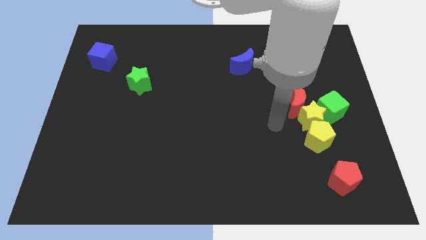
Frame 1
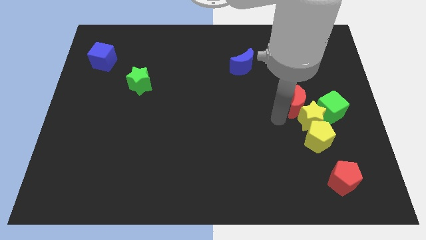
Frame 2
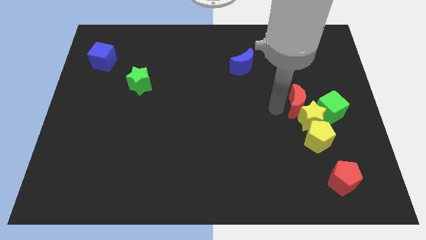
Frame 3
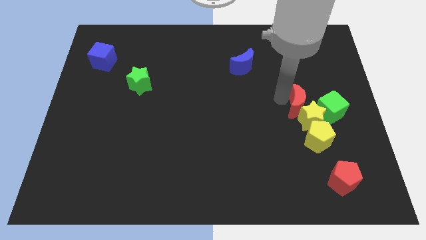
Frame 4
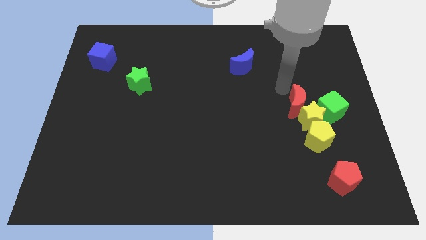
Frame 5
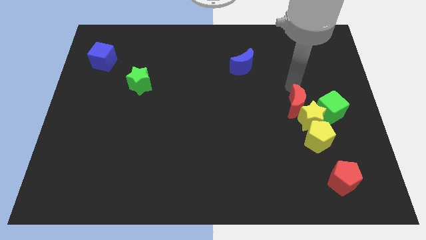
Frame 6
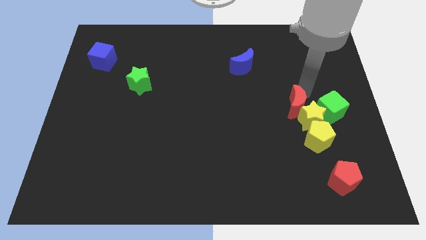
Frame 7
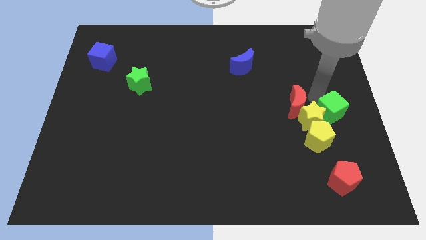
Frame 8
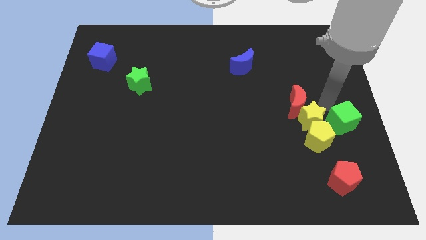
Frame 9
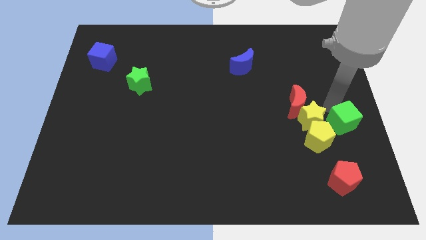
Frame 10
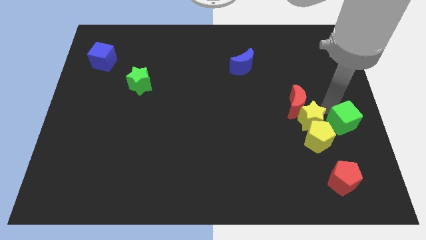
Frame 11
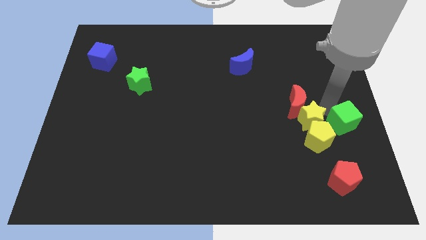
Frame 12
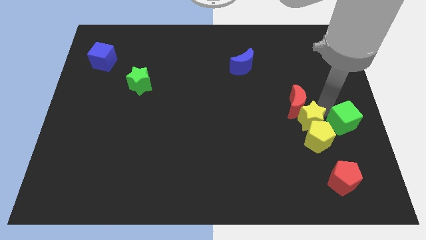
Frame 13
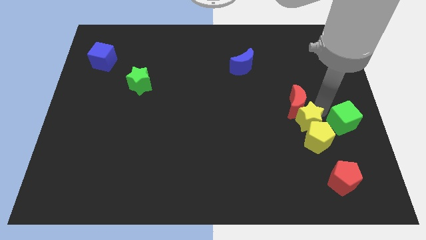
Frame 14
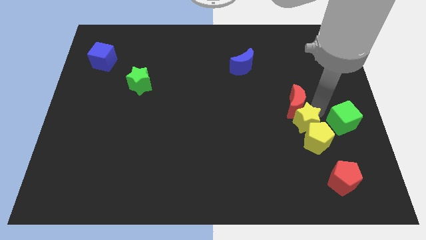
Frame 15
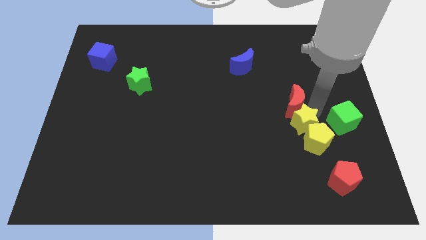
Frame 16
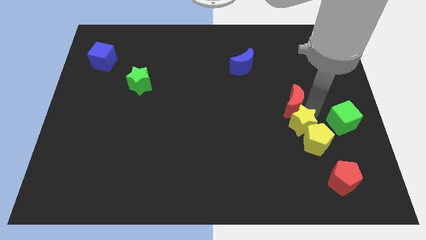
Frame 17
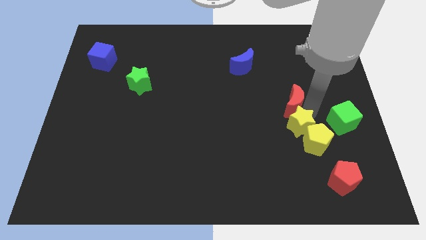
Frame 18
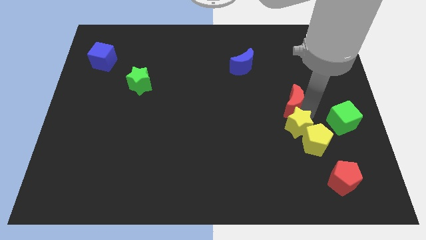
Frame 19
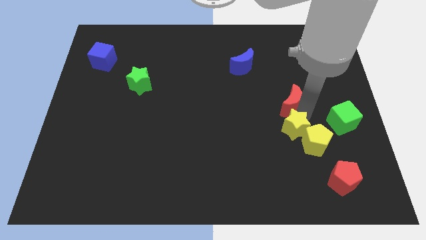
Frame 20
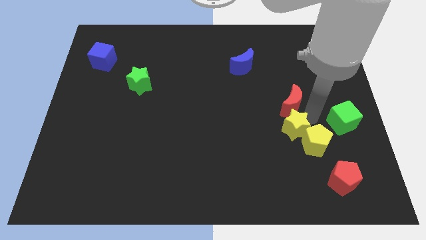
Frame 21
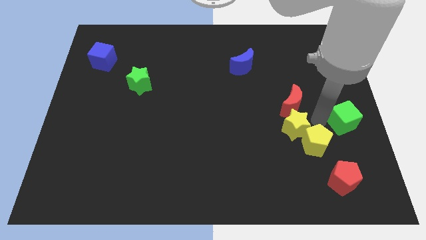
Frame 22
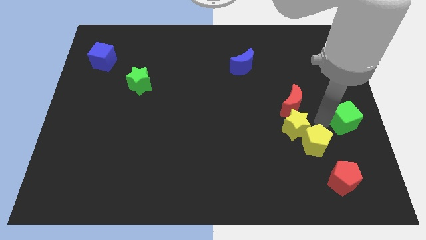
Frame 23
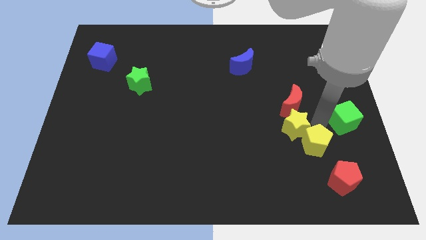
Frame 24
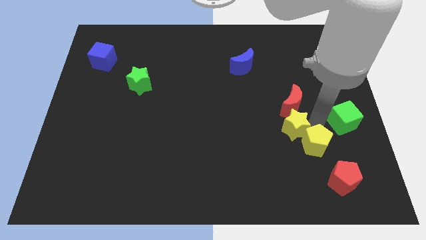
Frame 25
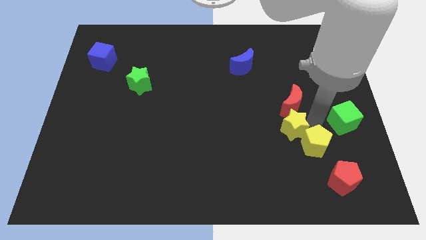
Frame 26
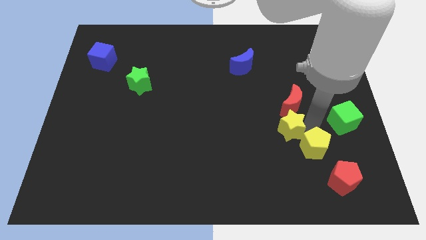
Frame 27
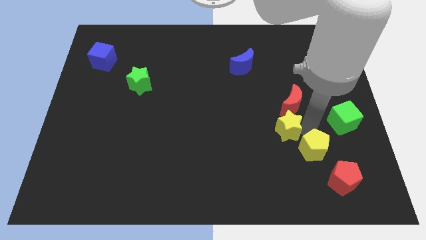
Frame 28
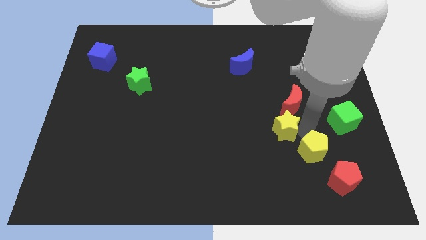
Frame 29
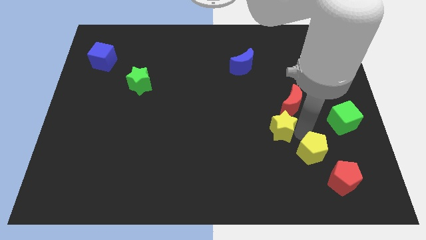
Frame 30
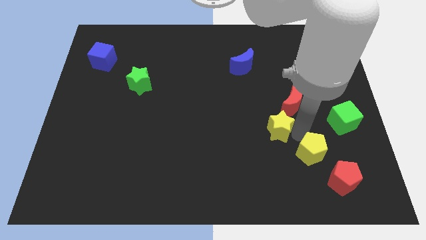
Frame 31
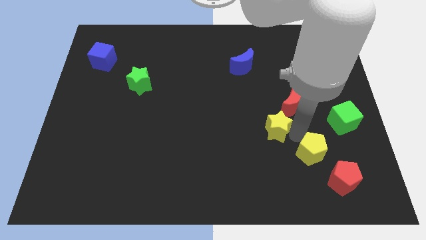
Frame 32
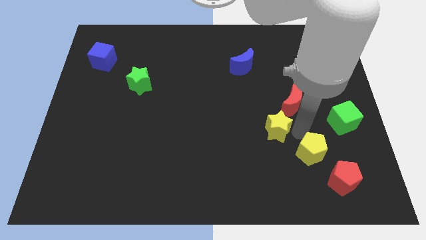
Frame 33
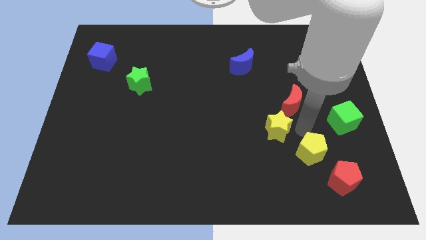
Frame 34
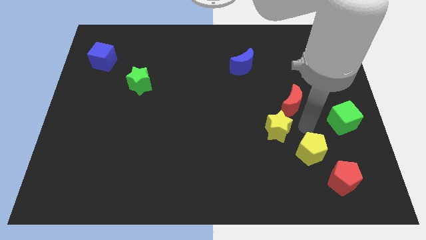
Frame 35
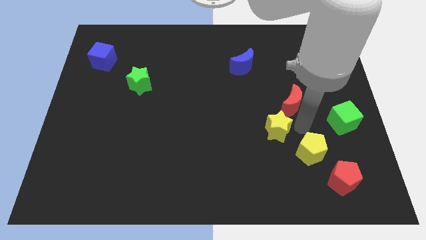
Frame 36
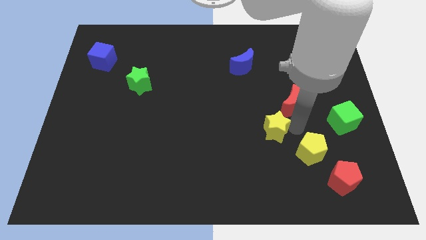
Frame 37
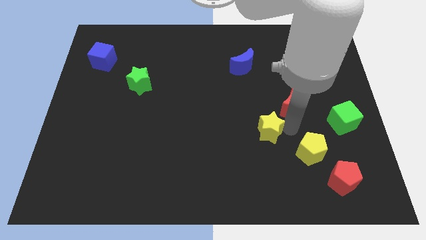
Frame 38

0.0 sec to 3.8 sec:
pull the yellow star apart from the group of blocks

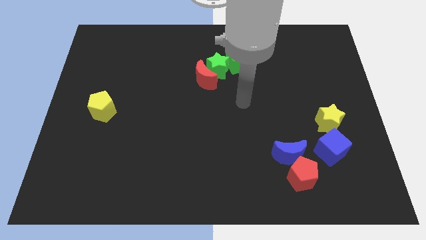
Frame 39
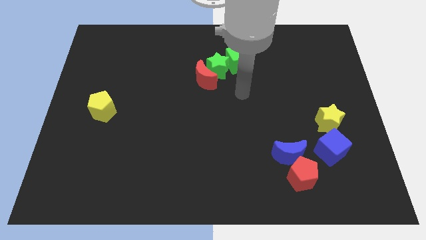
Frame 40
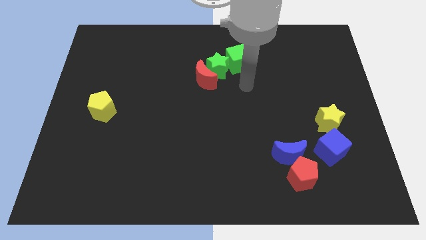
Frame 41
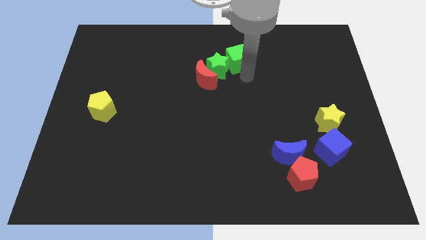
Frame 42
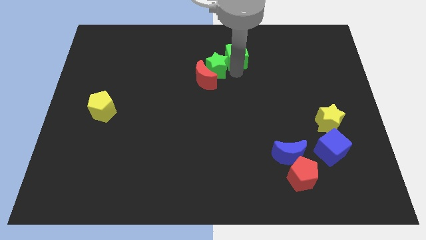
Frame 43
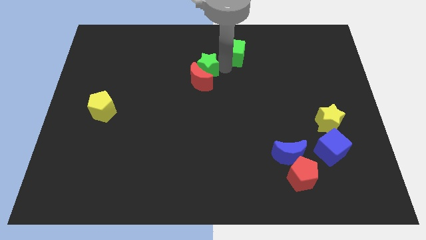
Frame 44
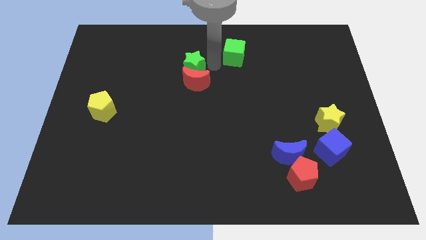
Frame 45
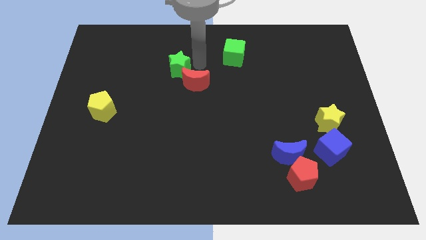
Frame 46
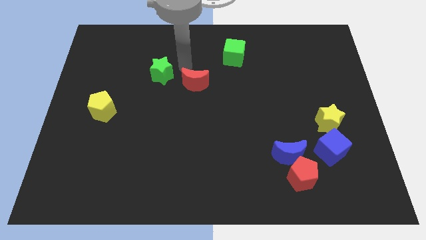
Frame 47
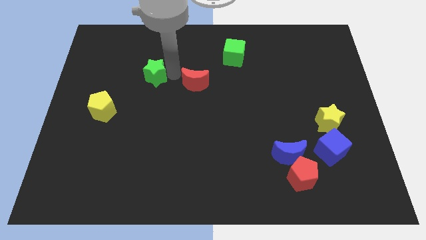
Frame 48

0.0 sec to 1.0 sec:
pull the red moon apart from the green star

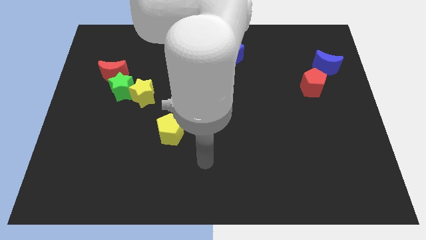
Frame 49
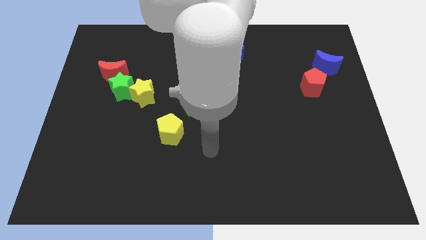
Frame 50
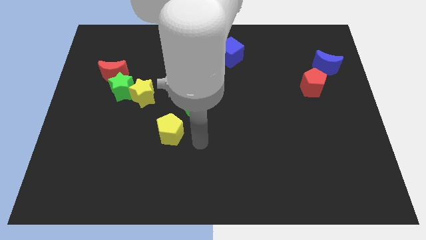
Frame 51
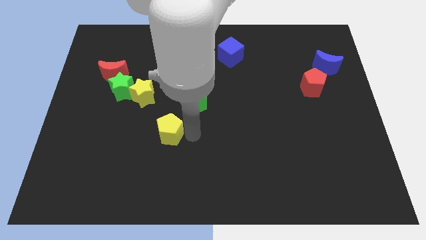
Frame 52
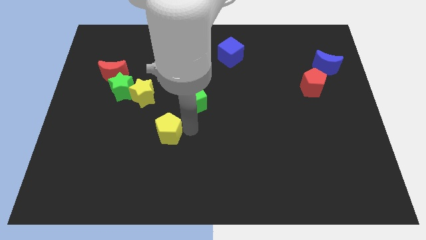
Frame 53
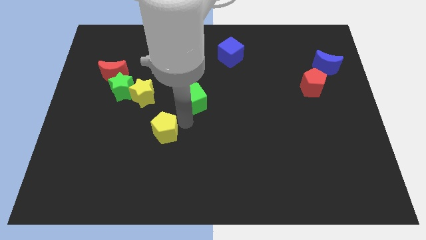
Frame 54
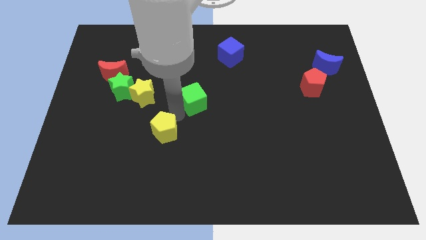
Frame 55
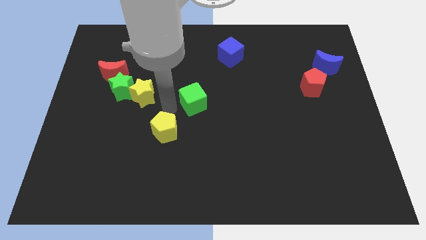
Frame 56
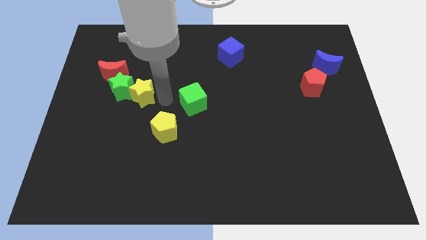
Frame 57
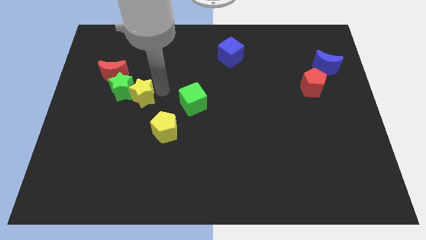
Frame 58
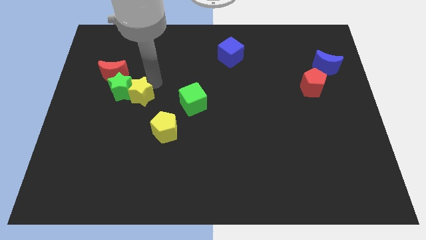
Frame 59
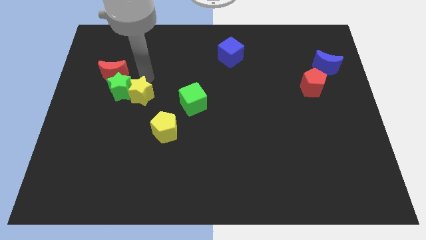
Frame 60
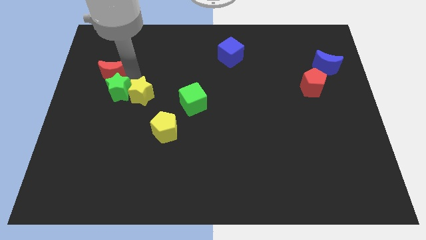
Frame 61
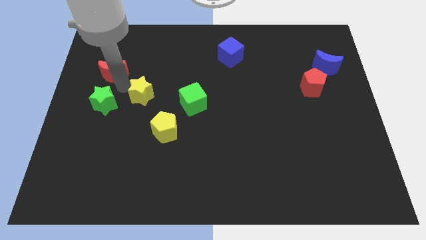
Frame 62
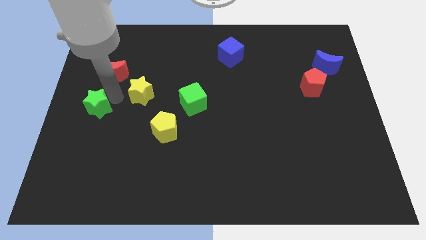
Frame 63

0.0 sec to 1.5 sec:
move the yellow star away from the green star

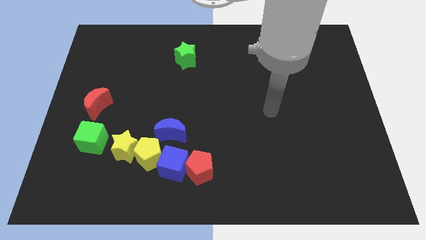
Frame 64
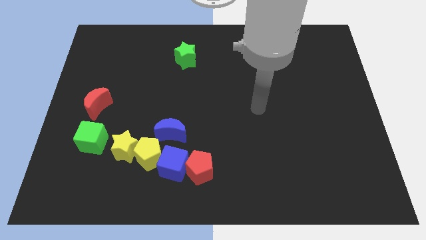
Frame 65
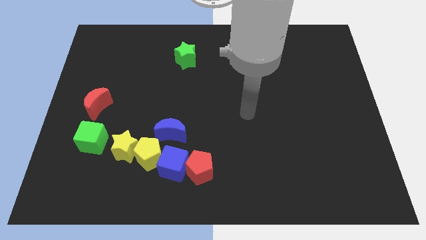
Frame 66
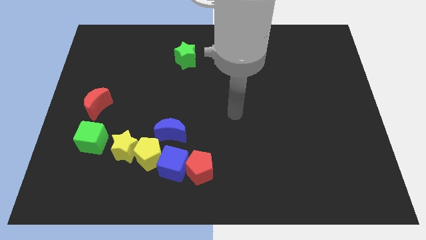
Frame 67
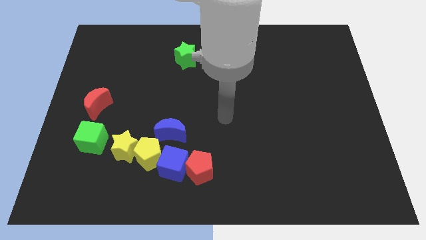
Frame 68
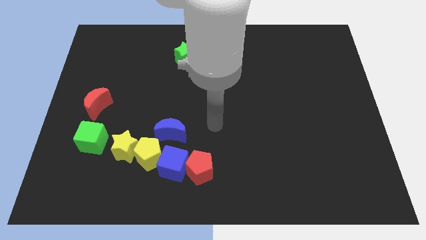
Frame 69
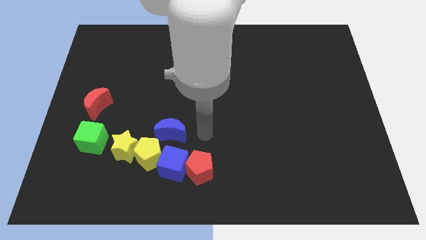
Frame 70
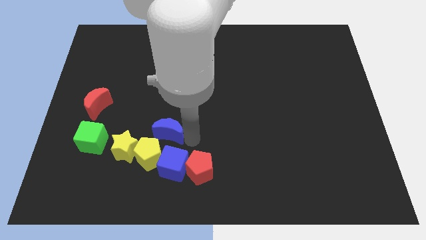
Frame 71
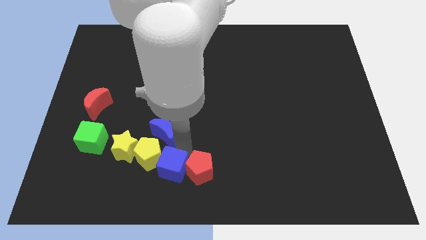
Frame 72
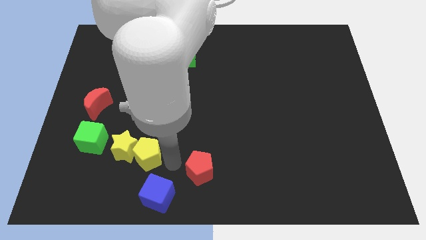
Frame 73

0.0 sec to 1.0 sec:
move the red pentagon away from the blue cube

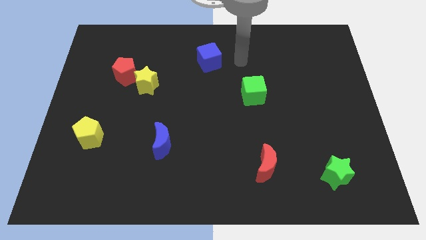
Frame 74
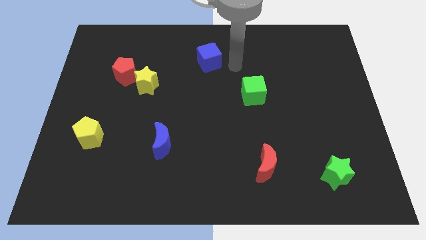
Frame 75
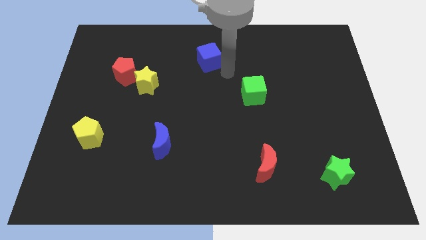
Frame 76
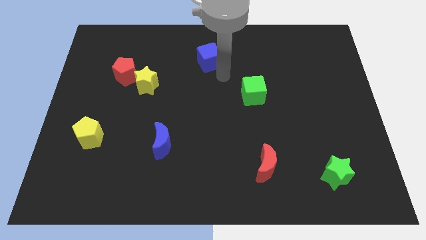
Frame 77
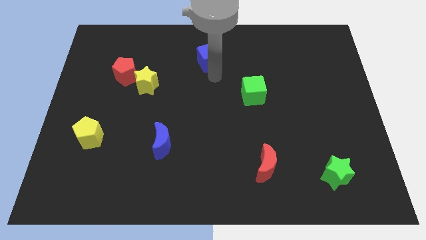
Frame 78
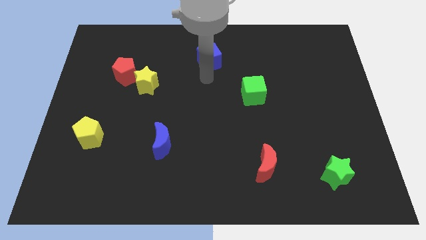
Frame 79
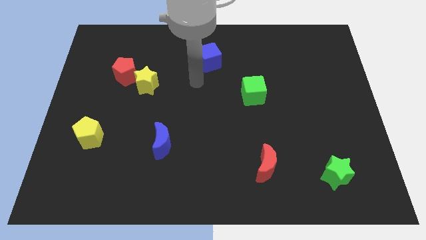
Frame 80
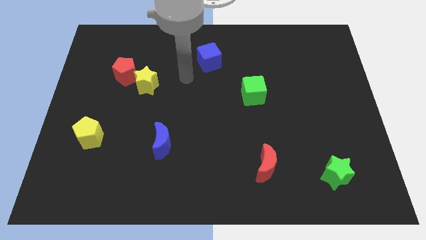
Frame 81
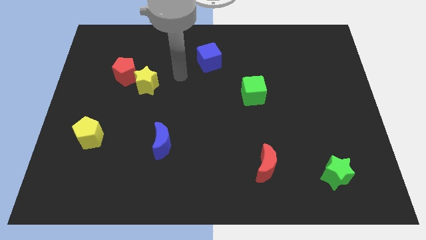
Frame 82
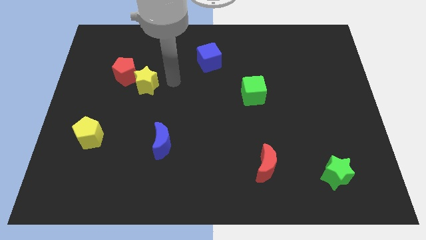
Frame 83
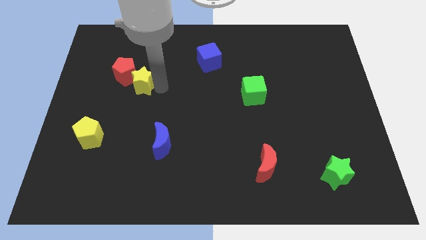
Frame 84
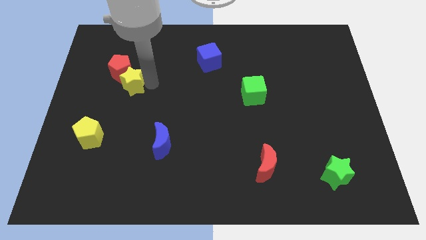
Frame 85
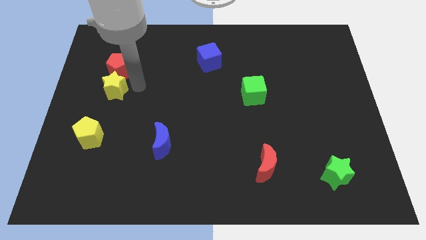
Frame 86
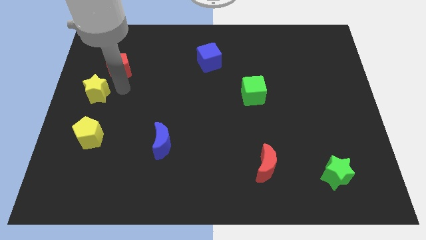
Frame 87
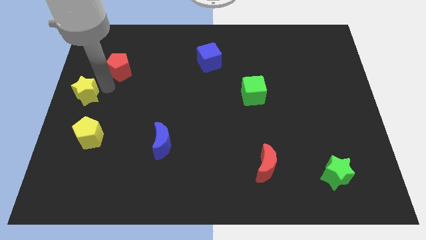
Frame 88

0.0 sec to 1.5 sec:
separate the red pentagon from the yellow star

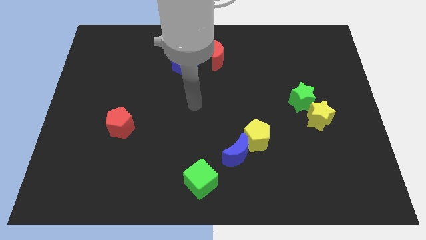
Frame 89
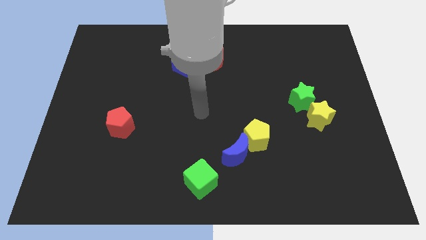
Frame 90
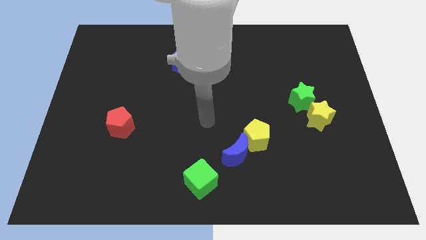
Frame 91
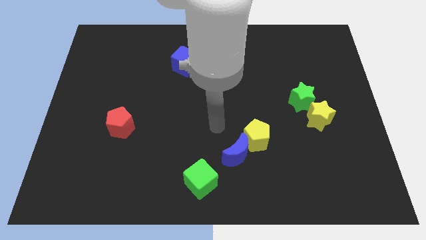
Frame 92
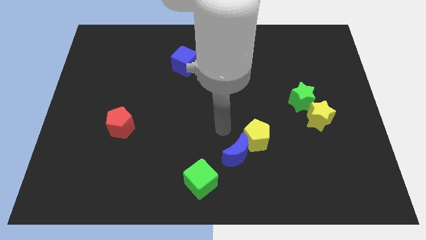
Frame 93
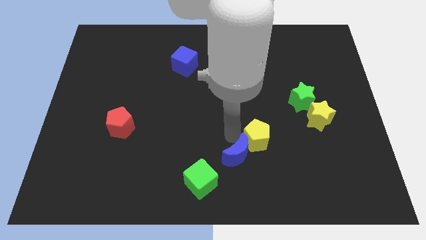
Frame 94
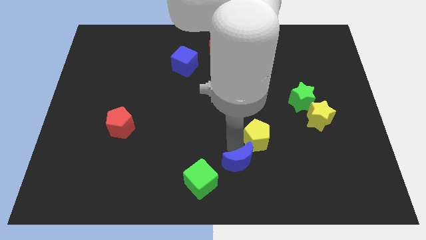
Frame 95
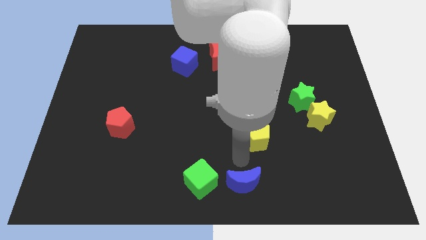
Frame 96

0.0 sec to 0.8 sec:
move the yellow pentagon away from the blue moon
